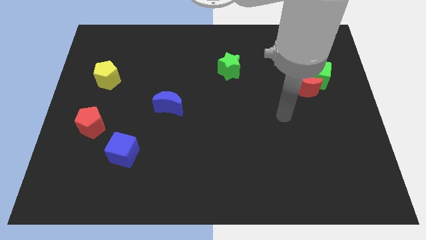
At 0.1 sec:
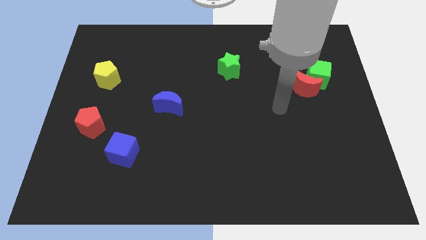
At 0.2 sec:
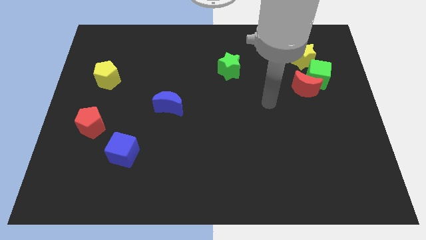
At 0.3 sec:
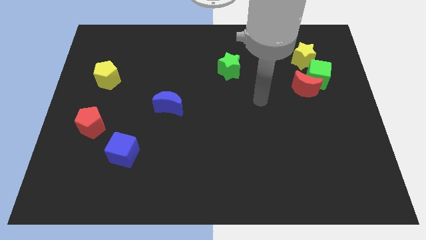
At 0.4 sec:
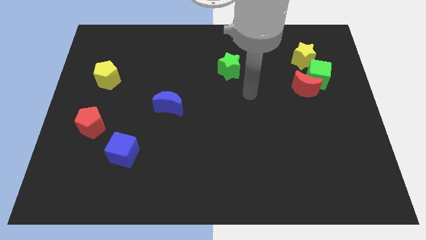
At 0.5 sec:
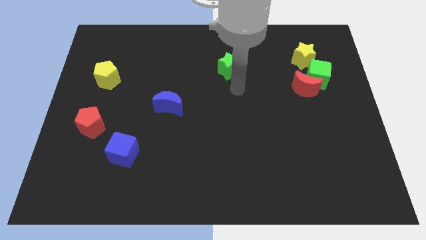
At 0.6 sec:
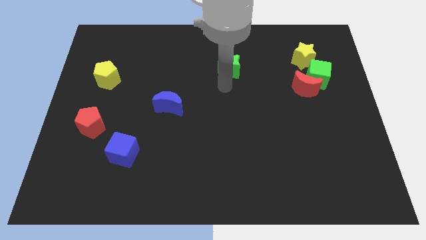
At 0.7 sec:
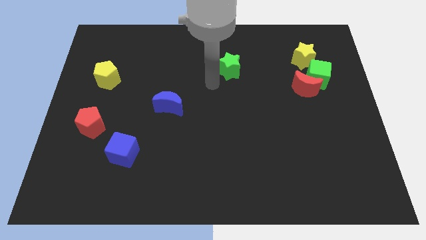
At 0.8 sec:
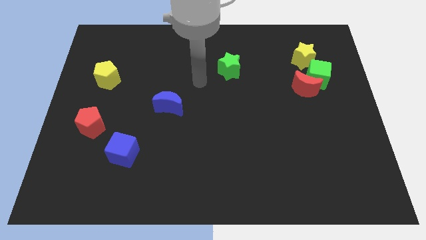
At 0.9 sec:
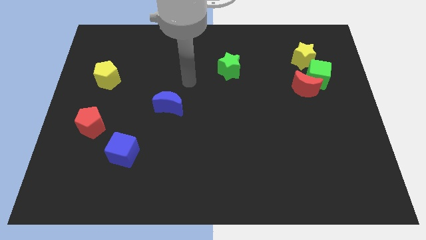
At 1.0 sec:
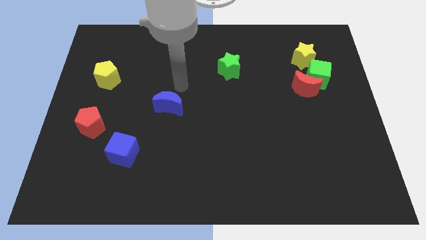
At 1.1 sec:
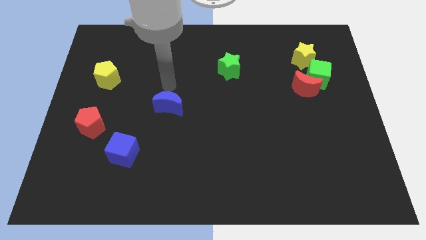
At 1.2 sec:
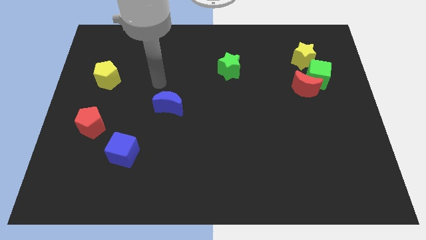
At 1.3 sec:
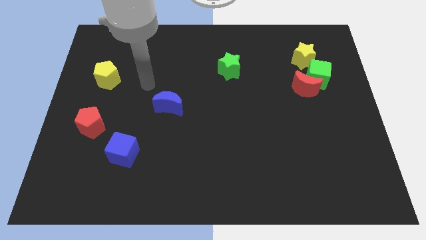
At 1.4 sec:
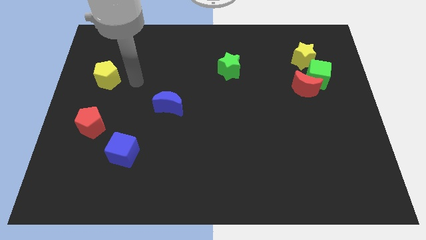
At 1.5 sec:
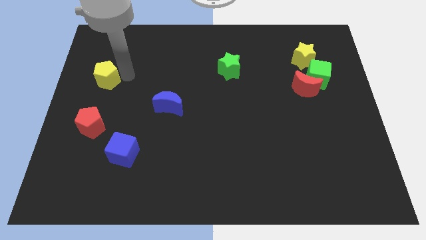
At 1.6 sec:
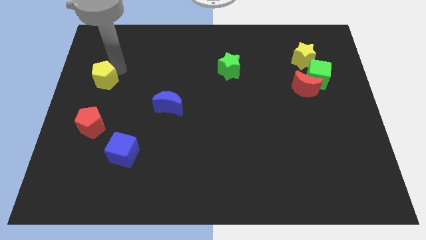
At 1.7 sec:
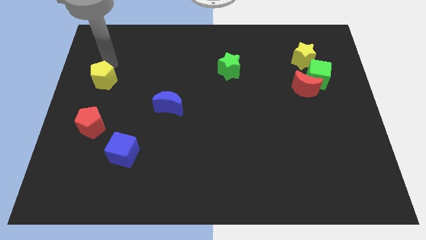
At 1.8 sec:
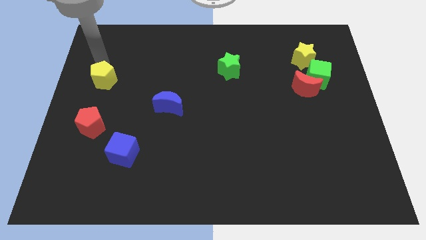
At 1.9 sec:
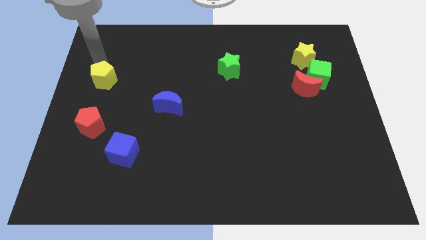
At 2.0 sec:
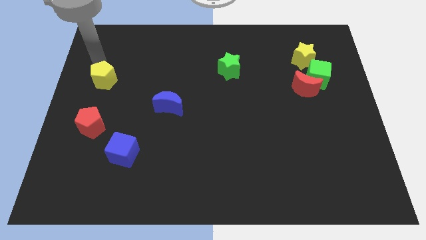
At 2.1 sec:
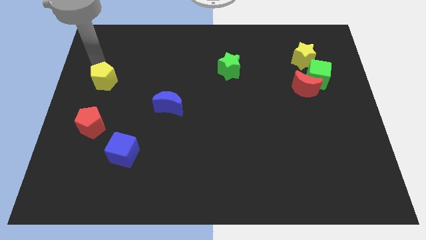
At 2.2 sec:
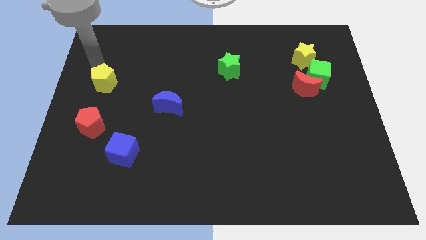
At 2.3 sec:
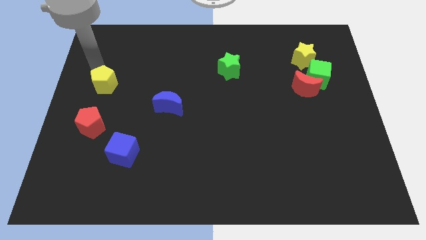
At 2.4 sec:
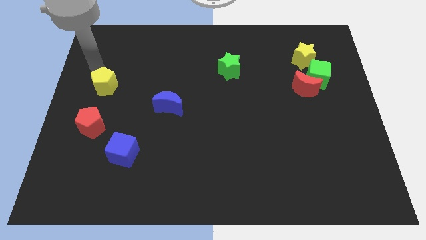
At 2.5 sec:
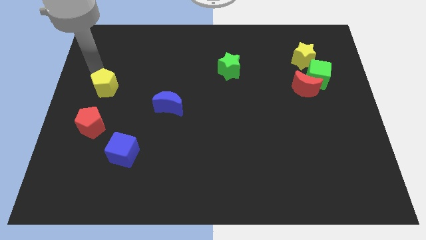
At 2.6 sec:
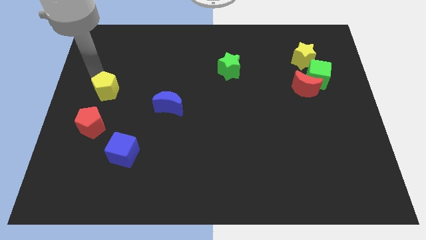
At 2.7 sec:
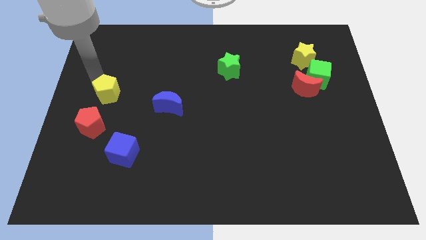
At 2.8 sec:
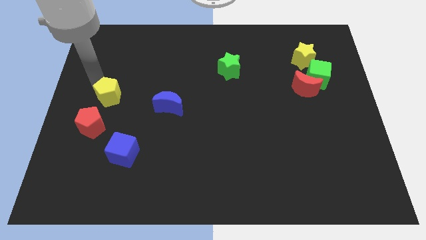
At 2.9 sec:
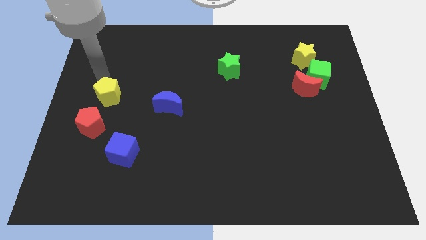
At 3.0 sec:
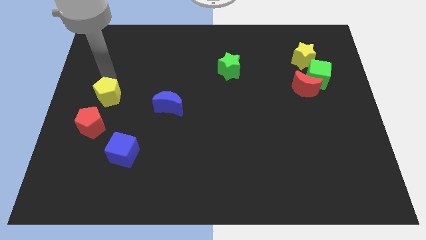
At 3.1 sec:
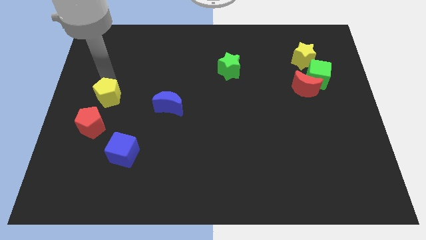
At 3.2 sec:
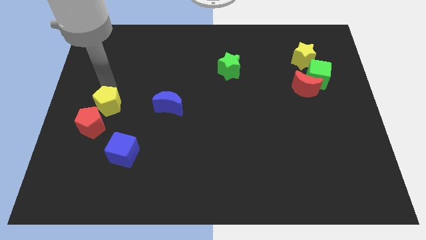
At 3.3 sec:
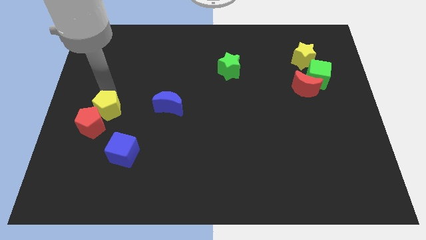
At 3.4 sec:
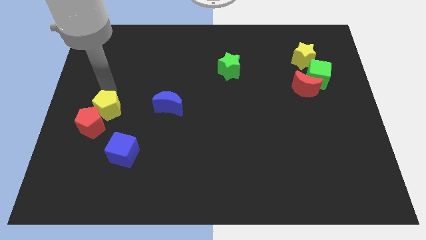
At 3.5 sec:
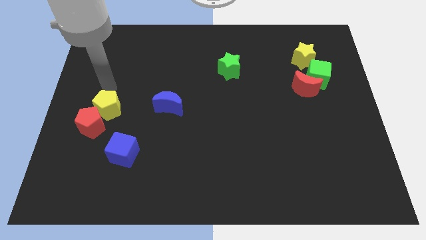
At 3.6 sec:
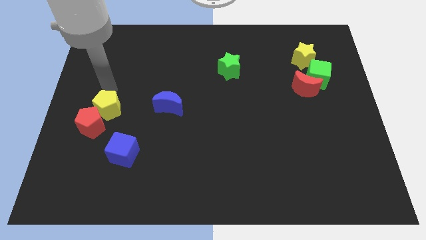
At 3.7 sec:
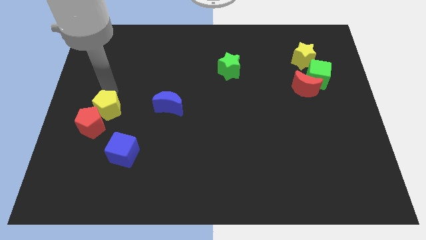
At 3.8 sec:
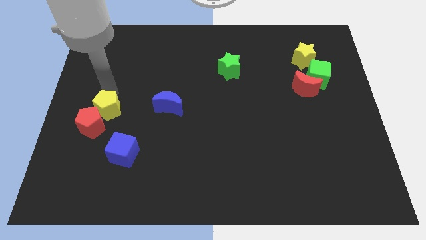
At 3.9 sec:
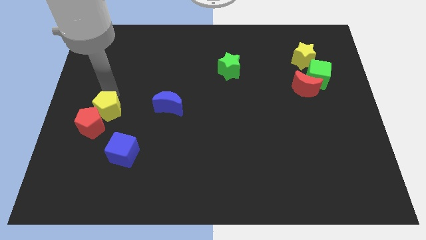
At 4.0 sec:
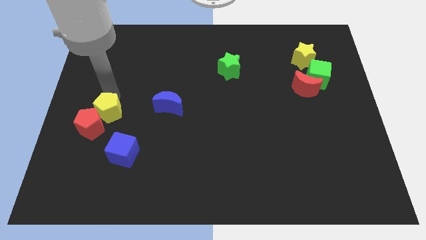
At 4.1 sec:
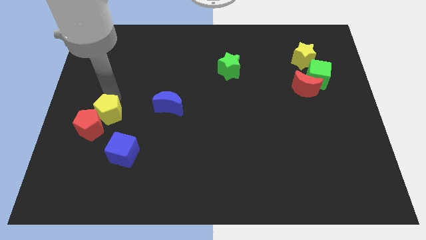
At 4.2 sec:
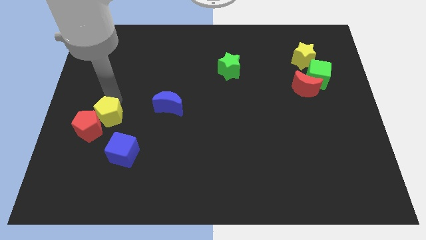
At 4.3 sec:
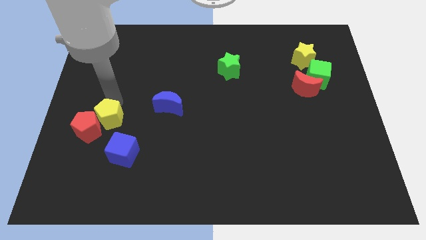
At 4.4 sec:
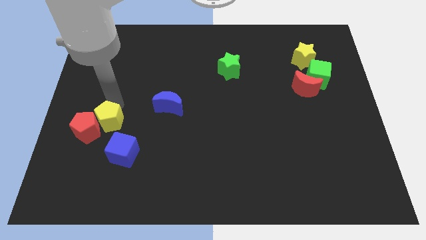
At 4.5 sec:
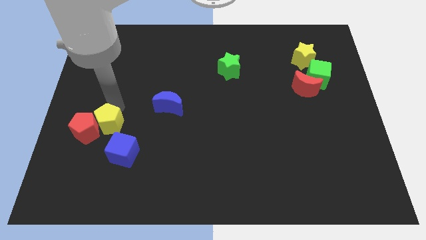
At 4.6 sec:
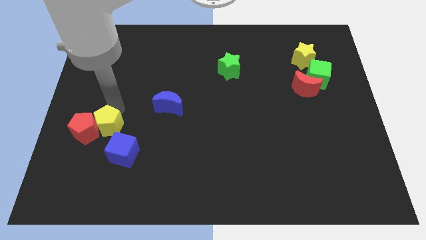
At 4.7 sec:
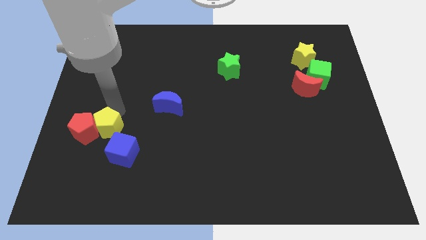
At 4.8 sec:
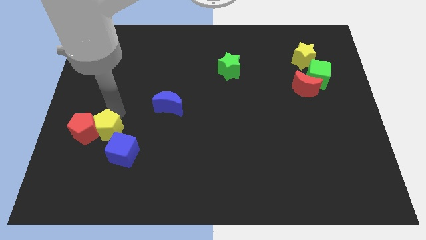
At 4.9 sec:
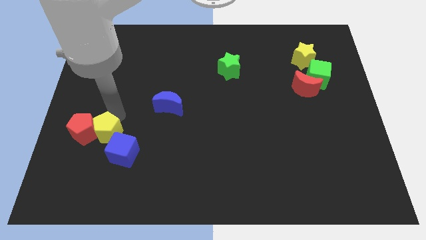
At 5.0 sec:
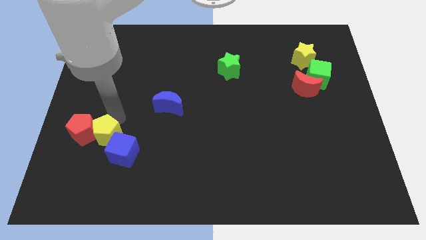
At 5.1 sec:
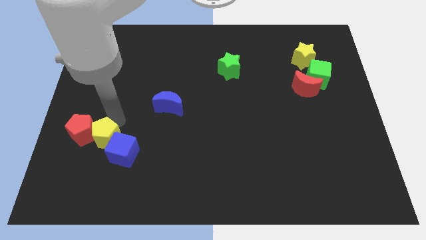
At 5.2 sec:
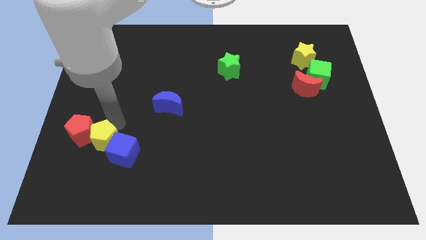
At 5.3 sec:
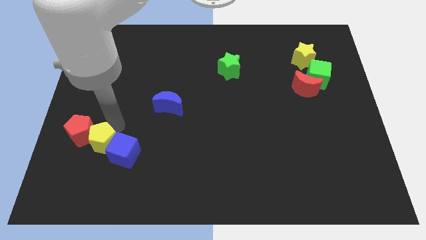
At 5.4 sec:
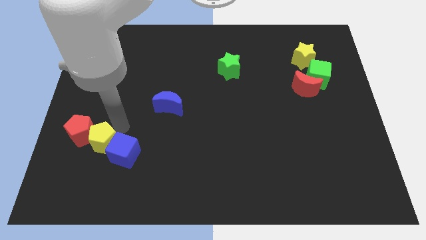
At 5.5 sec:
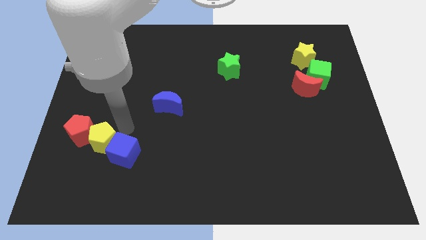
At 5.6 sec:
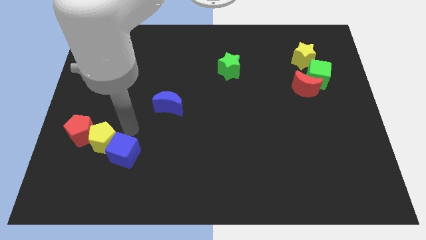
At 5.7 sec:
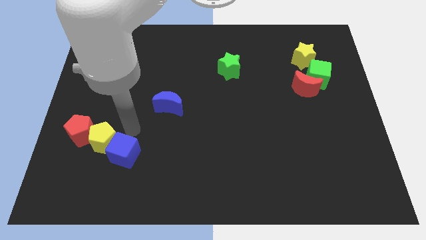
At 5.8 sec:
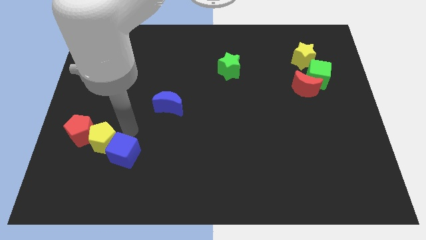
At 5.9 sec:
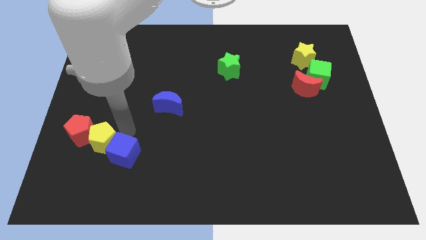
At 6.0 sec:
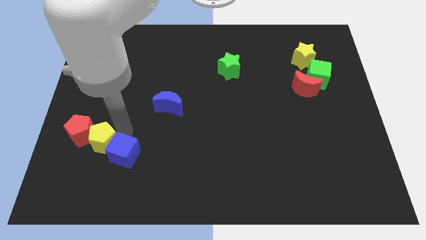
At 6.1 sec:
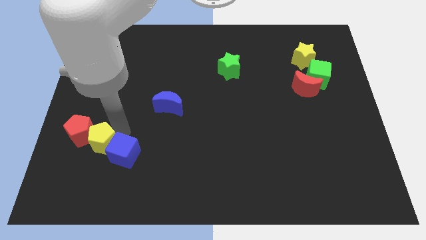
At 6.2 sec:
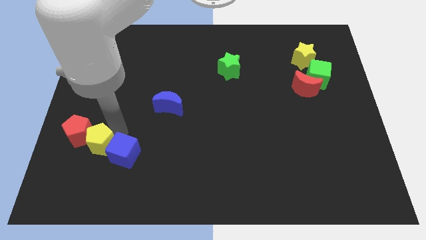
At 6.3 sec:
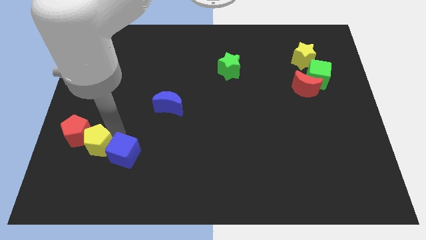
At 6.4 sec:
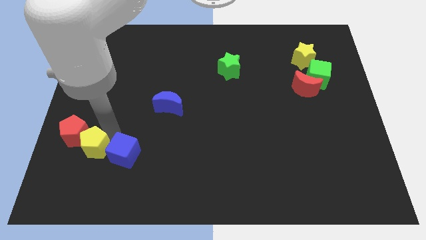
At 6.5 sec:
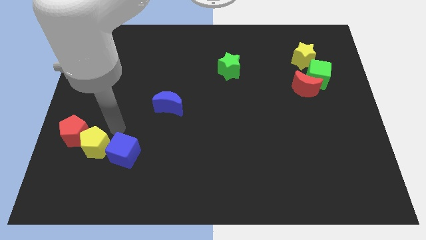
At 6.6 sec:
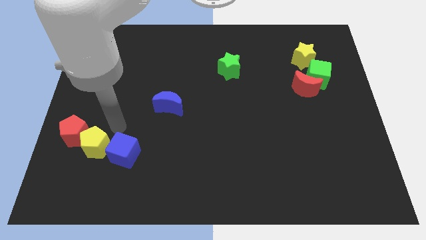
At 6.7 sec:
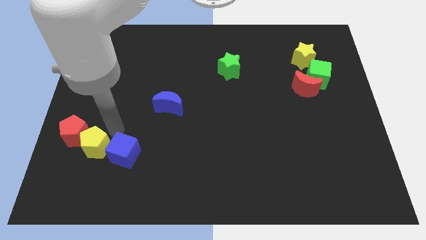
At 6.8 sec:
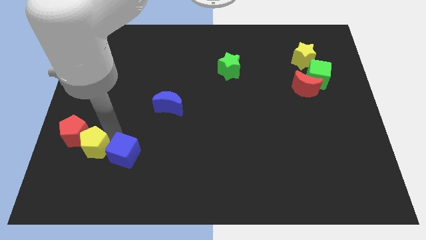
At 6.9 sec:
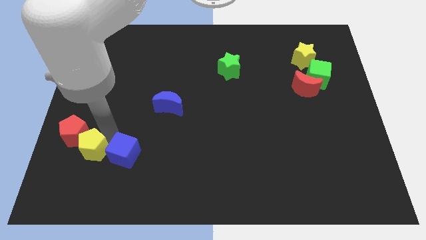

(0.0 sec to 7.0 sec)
move the yellow pentagon to the bottom side of the red pentagon

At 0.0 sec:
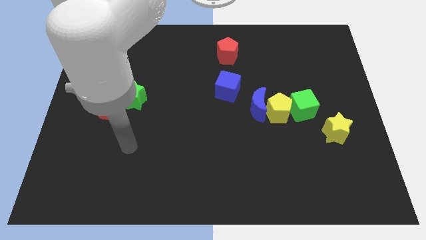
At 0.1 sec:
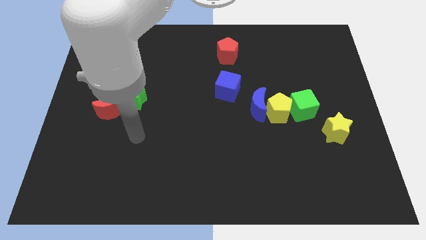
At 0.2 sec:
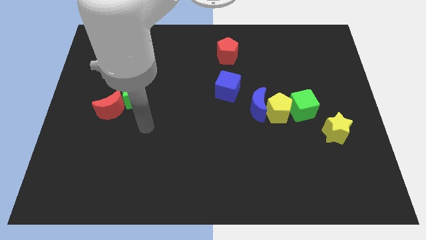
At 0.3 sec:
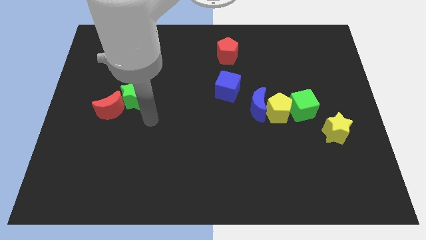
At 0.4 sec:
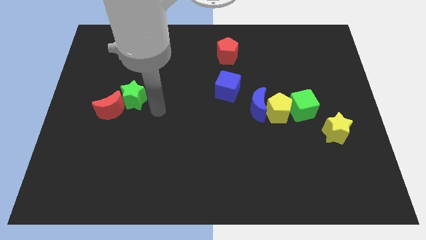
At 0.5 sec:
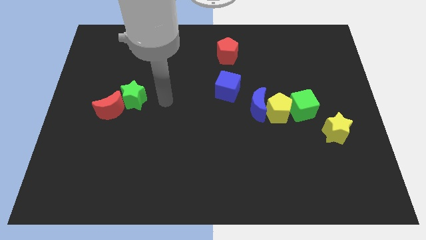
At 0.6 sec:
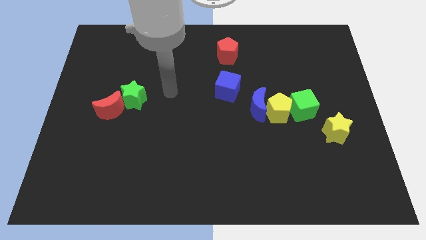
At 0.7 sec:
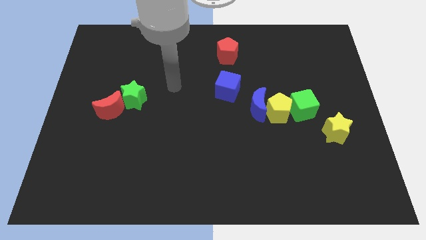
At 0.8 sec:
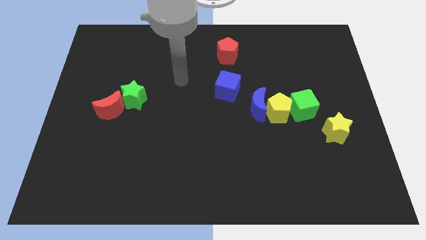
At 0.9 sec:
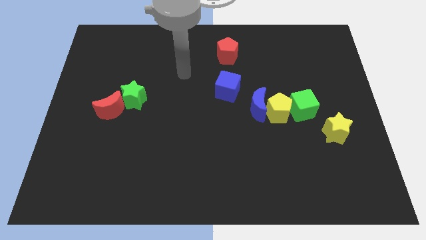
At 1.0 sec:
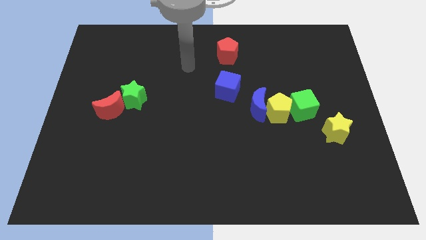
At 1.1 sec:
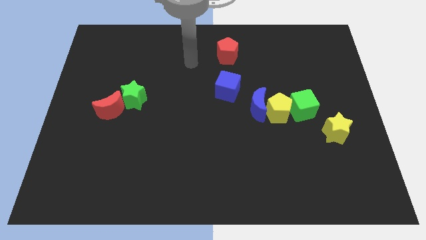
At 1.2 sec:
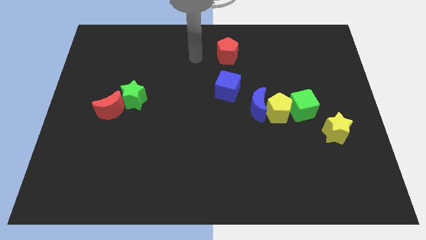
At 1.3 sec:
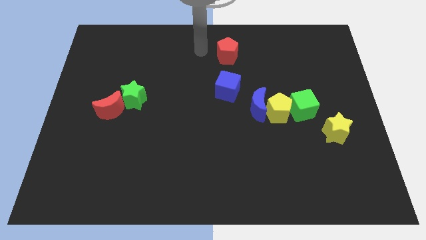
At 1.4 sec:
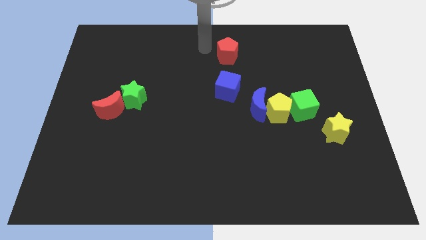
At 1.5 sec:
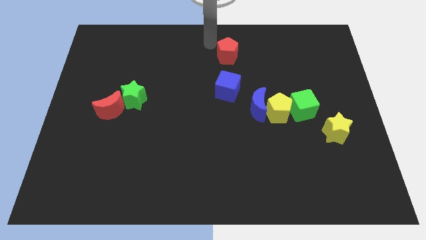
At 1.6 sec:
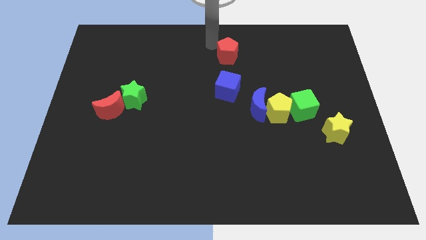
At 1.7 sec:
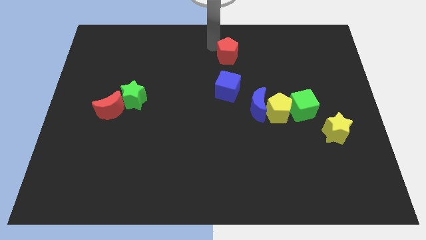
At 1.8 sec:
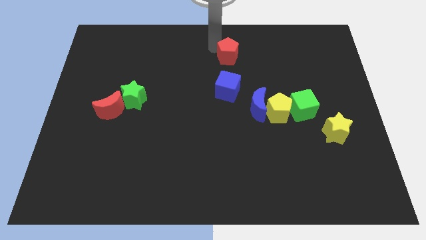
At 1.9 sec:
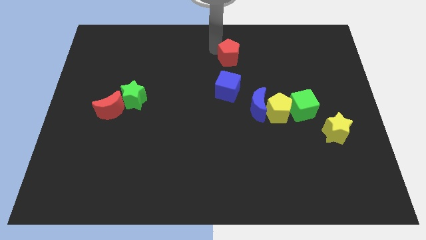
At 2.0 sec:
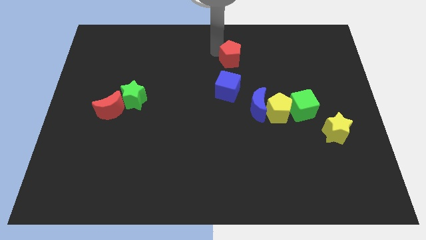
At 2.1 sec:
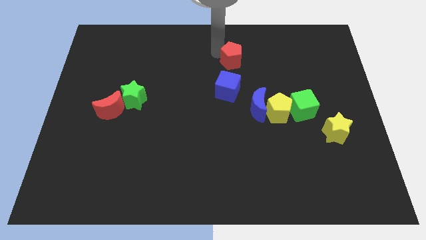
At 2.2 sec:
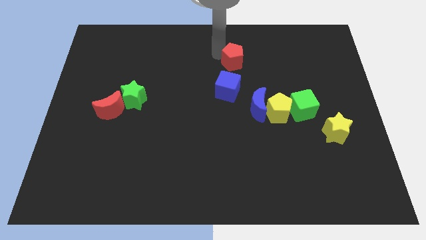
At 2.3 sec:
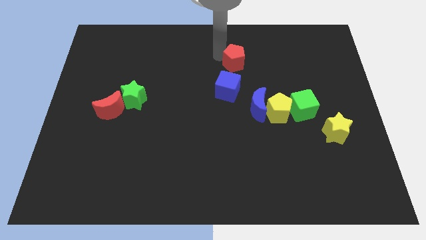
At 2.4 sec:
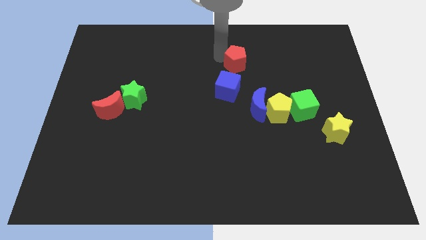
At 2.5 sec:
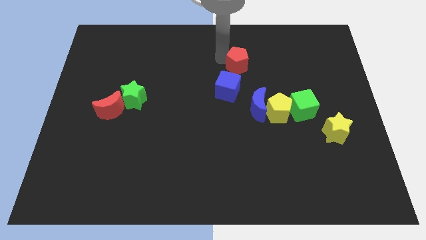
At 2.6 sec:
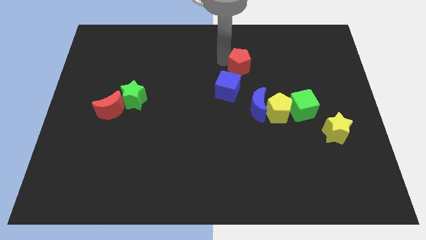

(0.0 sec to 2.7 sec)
move the red pentagon to the top side of the blue moon
